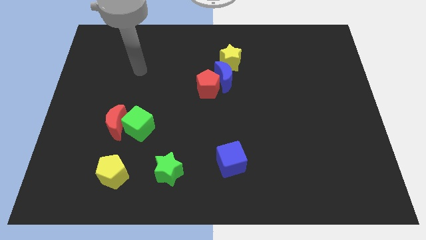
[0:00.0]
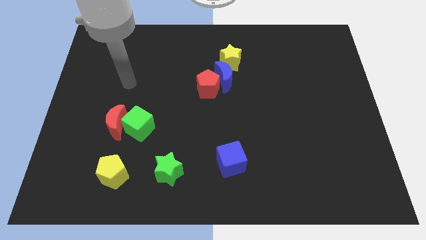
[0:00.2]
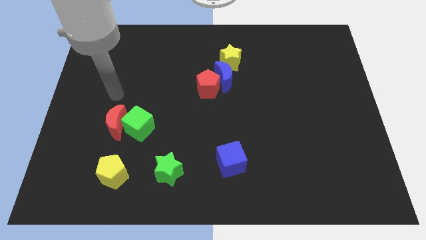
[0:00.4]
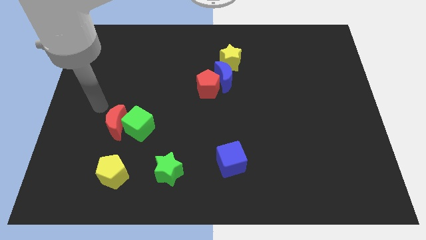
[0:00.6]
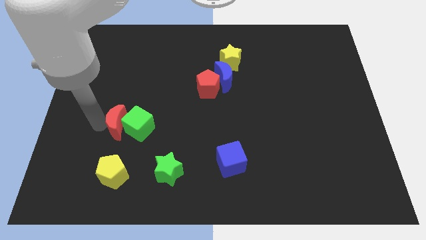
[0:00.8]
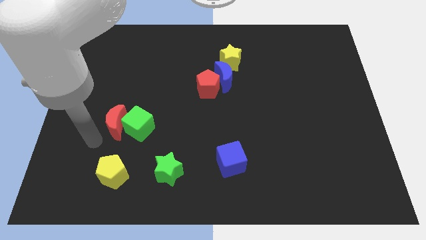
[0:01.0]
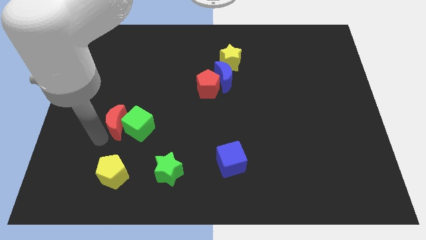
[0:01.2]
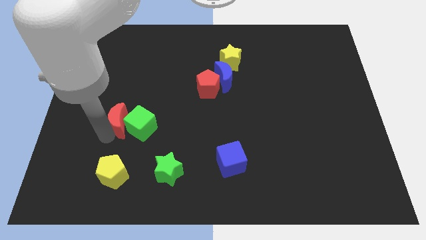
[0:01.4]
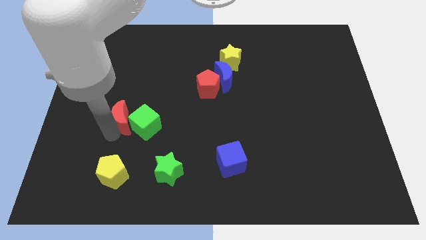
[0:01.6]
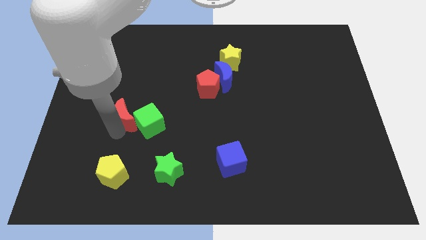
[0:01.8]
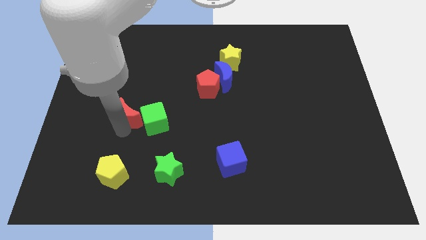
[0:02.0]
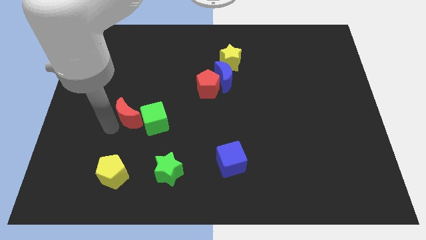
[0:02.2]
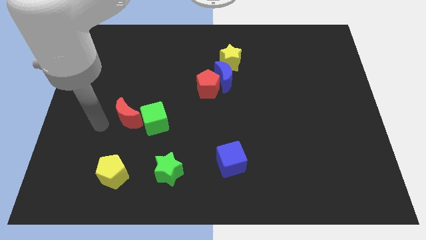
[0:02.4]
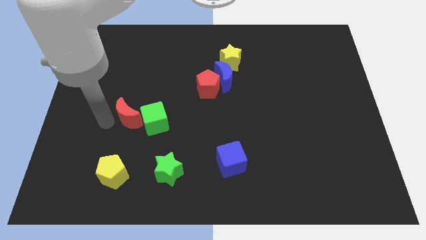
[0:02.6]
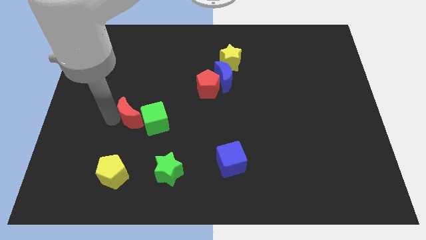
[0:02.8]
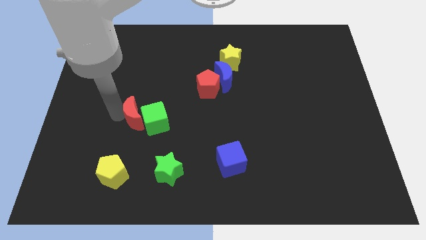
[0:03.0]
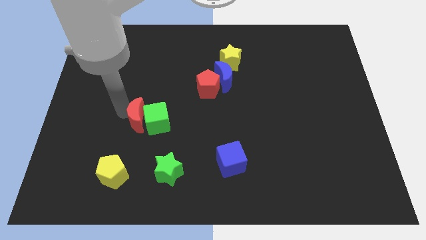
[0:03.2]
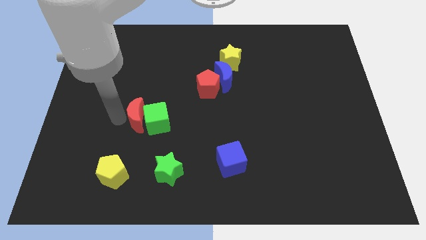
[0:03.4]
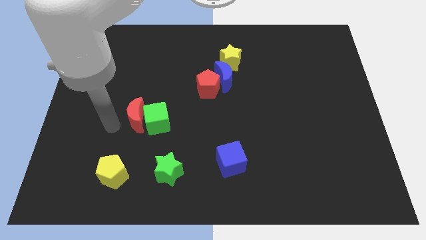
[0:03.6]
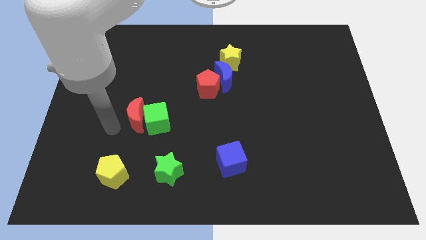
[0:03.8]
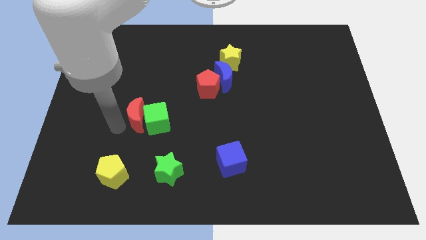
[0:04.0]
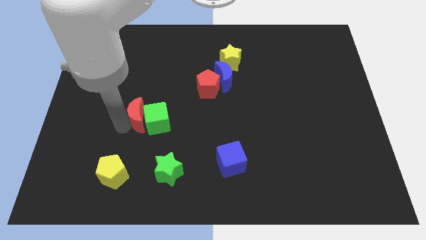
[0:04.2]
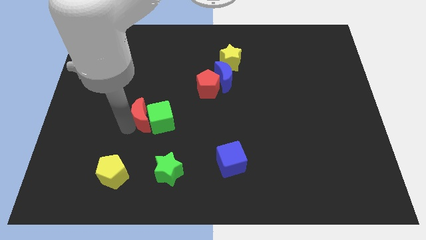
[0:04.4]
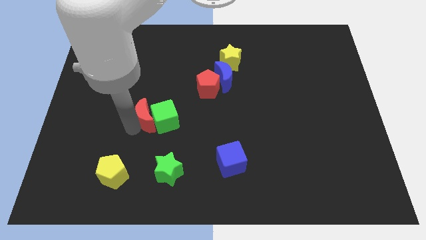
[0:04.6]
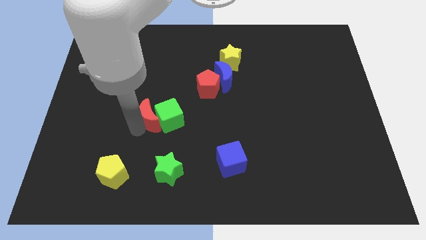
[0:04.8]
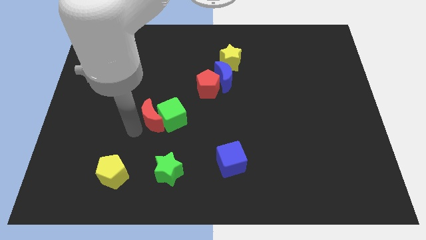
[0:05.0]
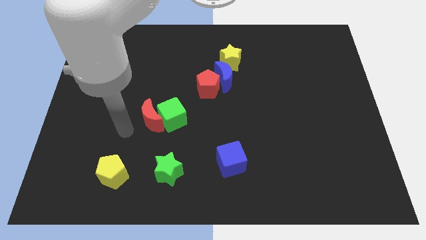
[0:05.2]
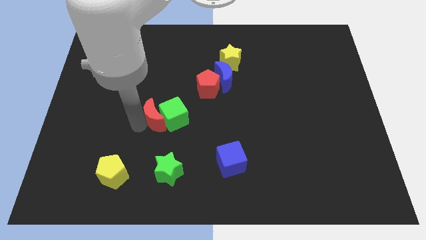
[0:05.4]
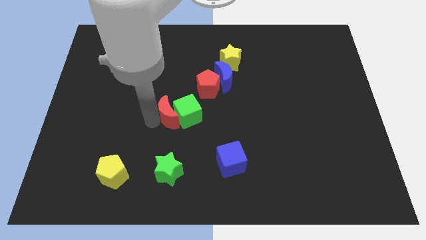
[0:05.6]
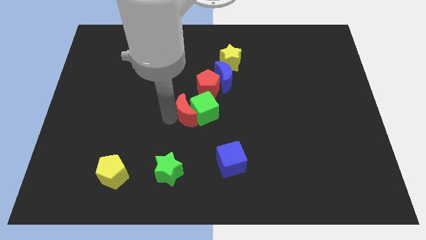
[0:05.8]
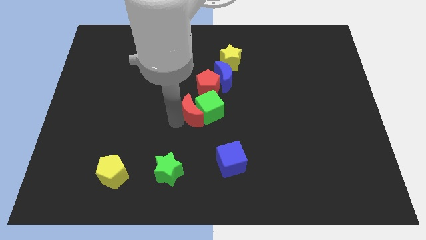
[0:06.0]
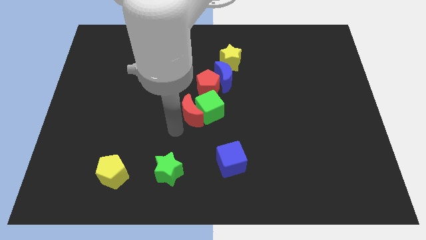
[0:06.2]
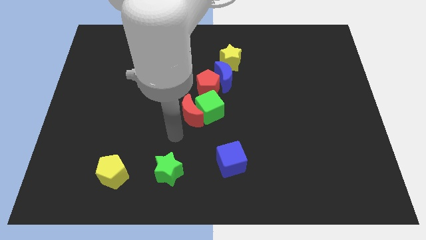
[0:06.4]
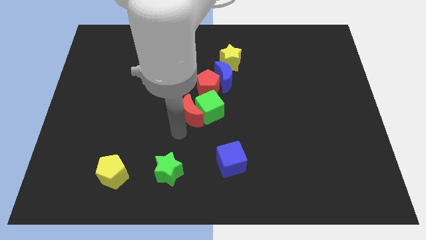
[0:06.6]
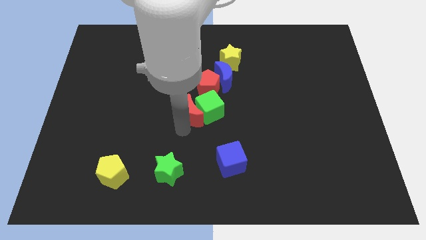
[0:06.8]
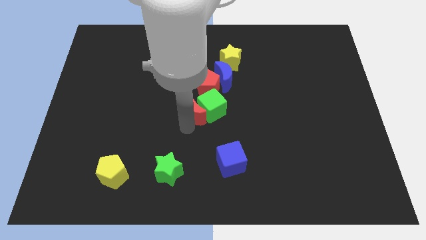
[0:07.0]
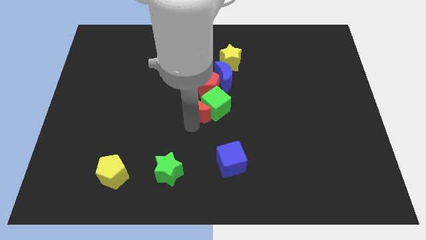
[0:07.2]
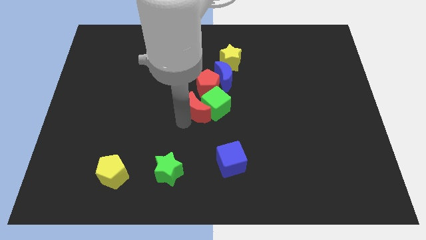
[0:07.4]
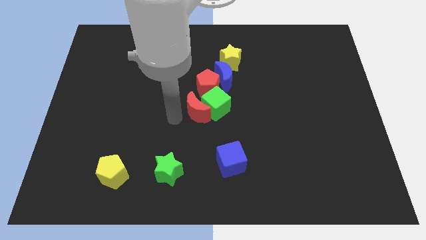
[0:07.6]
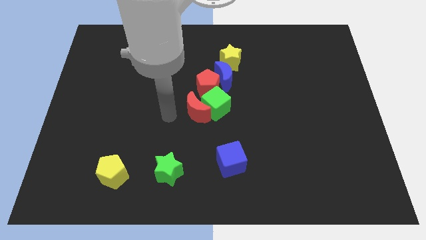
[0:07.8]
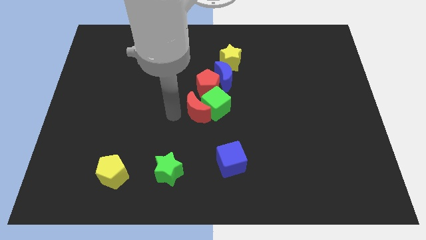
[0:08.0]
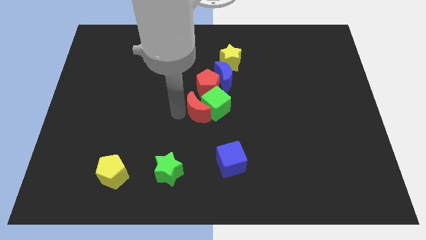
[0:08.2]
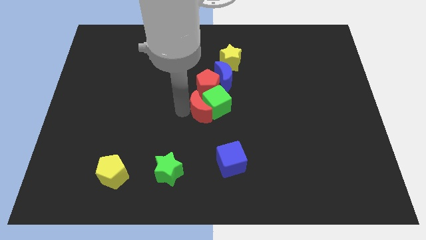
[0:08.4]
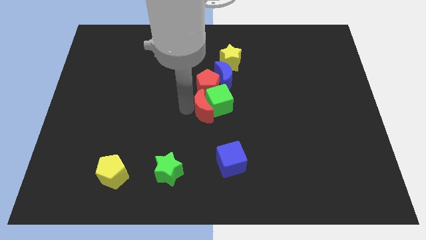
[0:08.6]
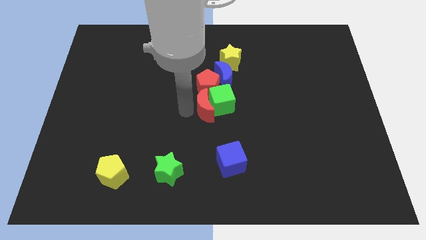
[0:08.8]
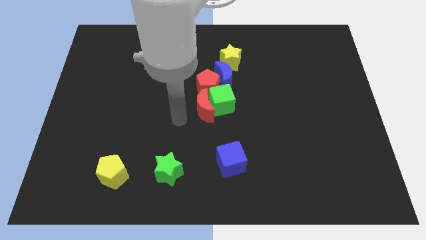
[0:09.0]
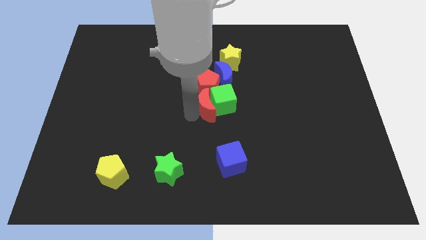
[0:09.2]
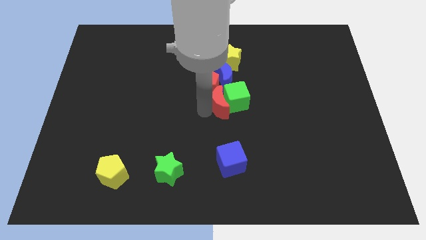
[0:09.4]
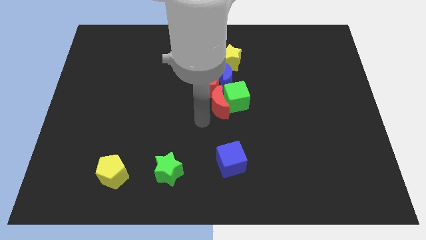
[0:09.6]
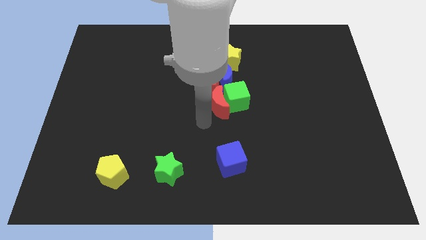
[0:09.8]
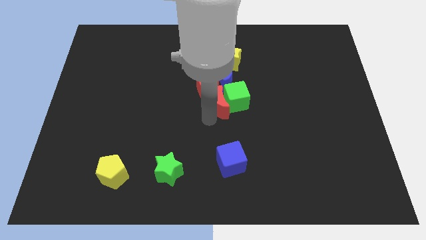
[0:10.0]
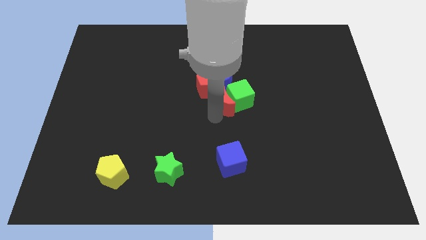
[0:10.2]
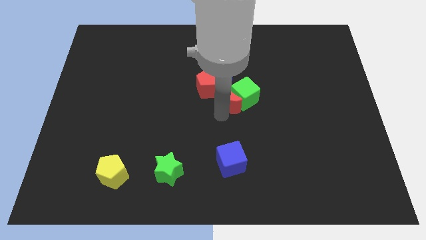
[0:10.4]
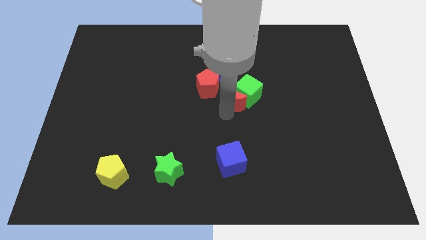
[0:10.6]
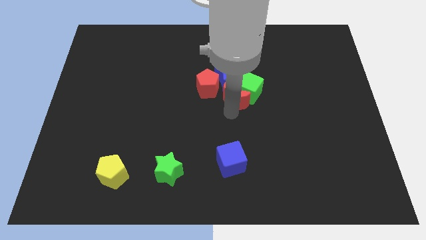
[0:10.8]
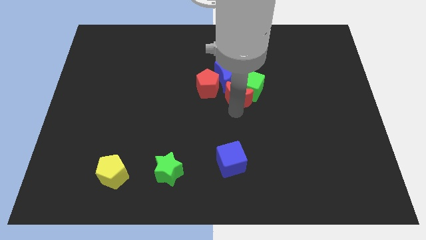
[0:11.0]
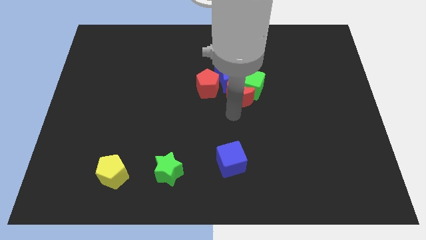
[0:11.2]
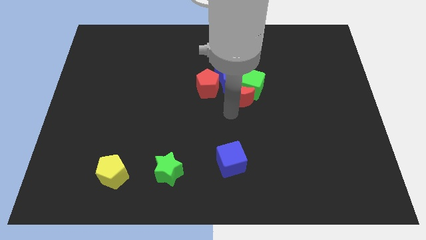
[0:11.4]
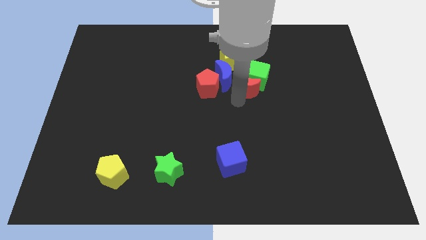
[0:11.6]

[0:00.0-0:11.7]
put the red moon to the bottom right of the yellow star

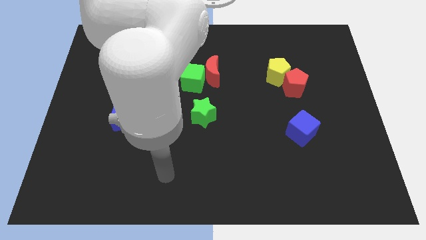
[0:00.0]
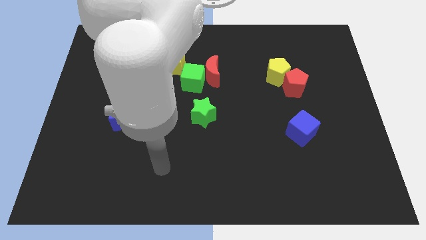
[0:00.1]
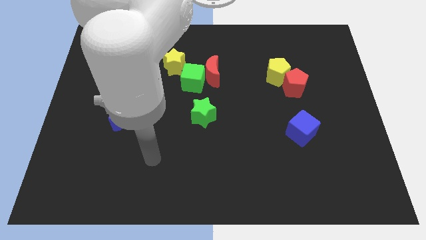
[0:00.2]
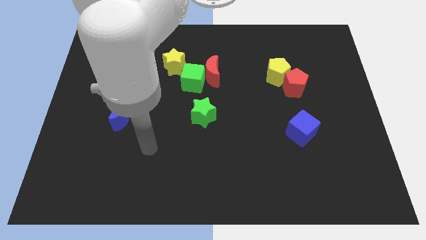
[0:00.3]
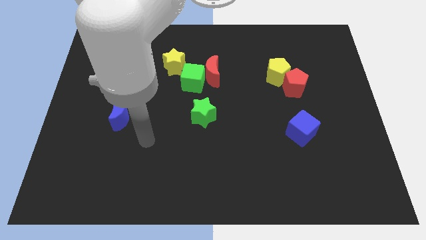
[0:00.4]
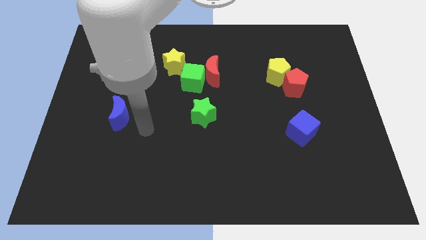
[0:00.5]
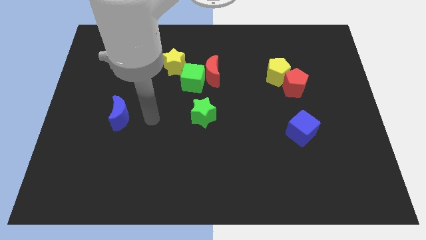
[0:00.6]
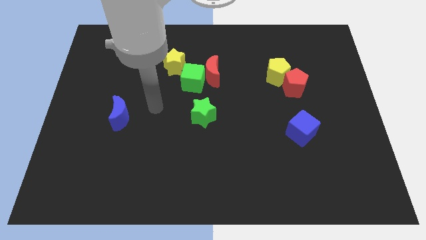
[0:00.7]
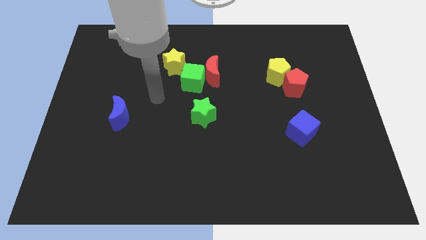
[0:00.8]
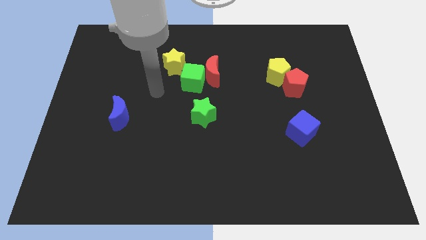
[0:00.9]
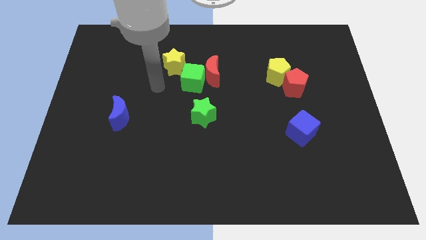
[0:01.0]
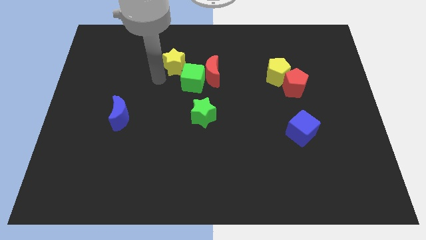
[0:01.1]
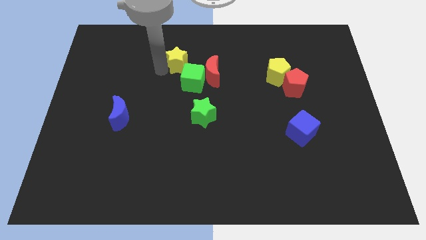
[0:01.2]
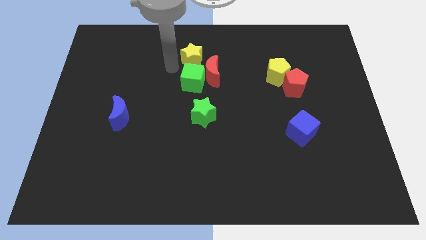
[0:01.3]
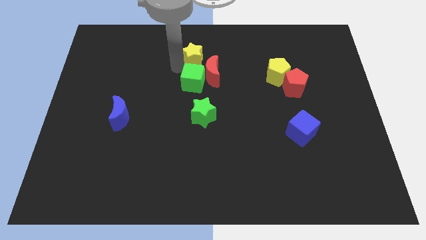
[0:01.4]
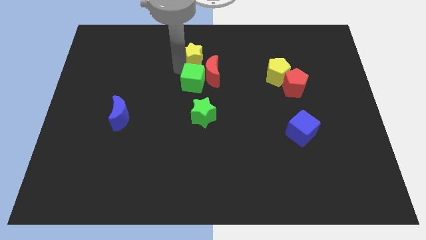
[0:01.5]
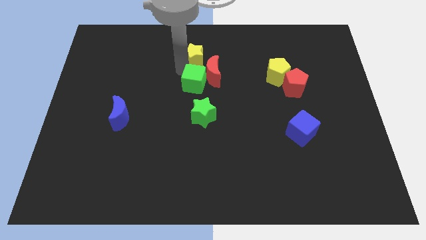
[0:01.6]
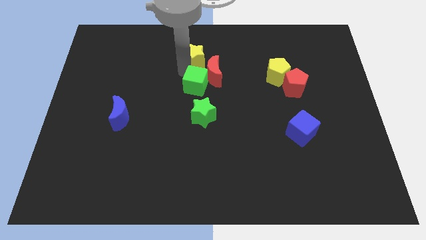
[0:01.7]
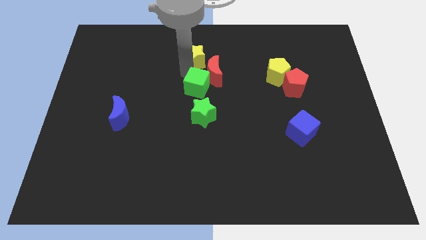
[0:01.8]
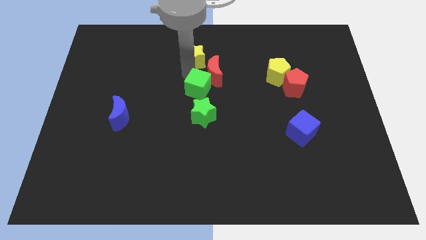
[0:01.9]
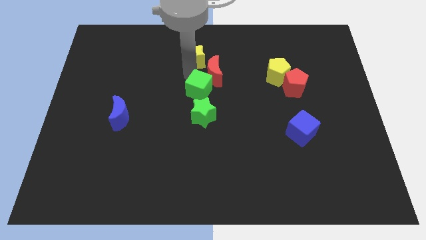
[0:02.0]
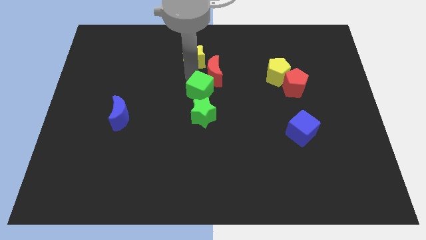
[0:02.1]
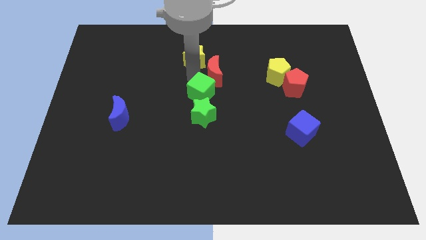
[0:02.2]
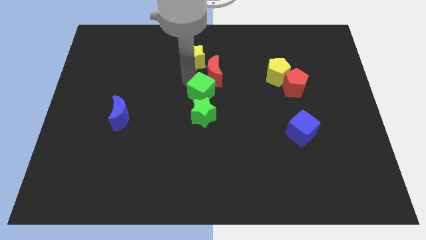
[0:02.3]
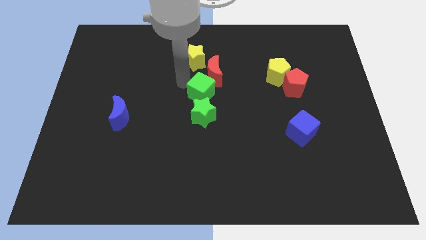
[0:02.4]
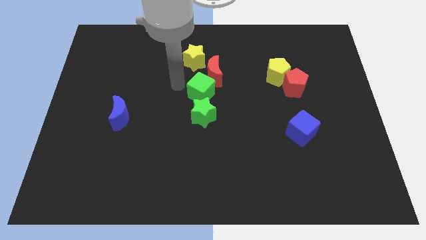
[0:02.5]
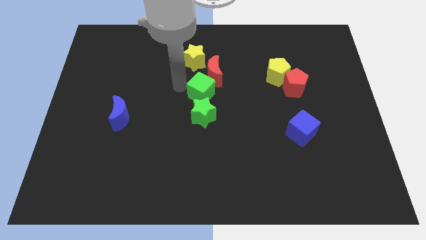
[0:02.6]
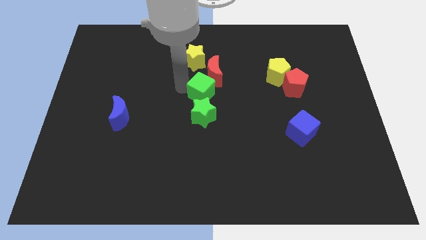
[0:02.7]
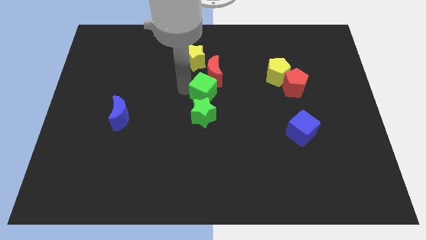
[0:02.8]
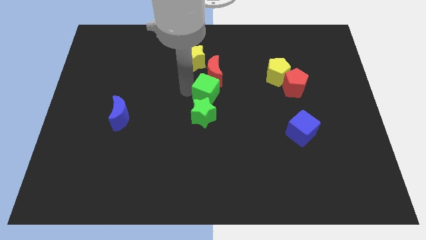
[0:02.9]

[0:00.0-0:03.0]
put the green cube to the top right of the green star
